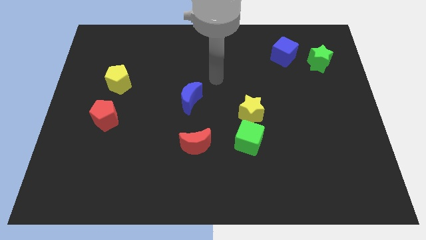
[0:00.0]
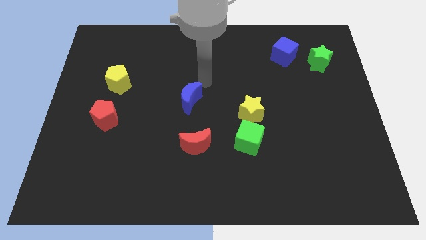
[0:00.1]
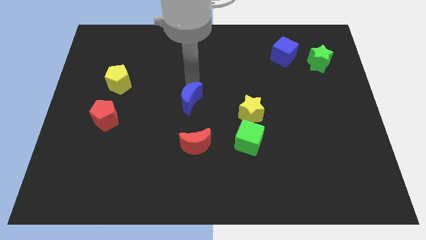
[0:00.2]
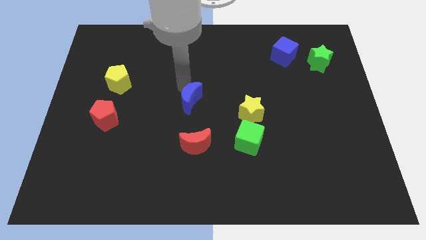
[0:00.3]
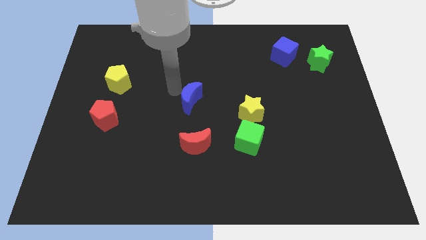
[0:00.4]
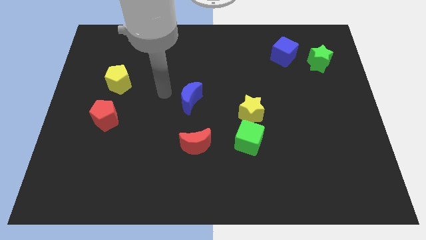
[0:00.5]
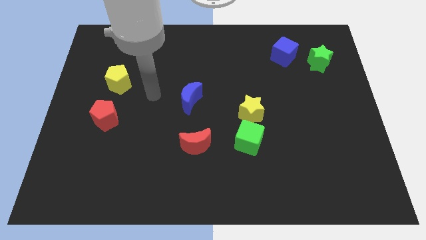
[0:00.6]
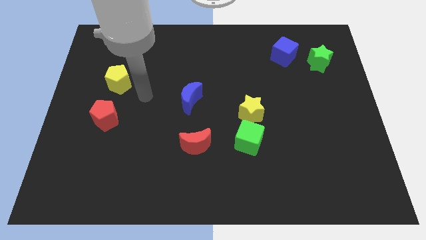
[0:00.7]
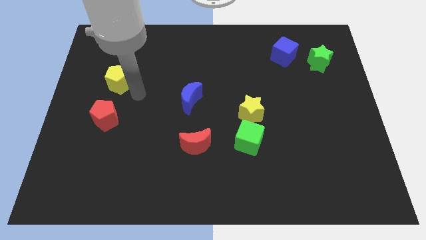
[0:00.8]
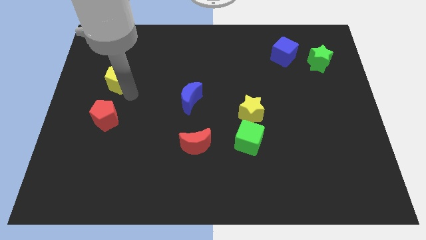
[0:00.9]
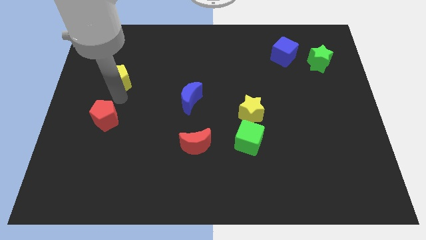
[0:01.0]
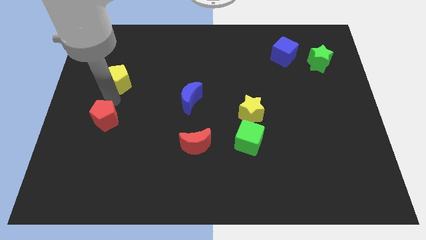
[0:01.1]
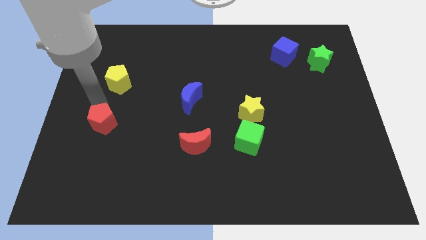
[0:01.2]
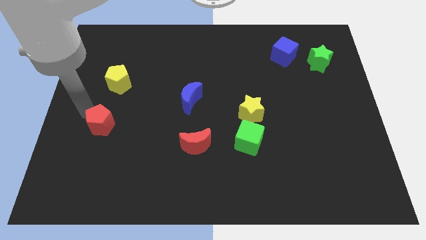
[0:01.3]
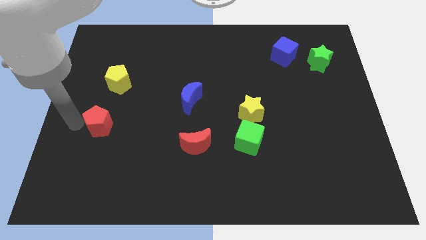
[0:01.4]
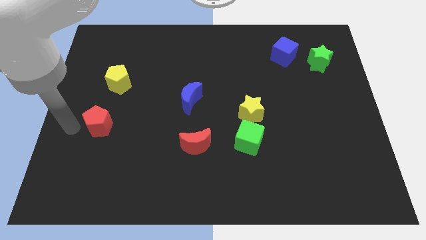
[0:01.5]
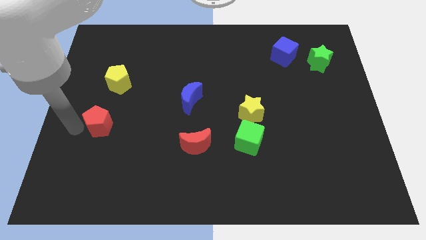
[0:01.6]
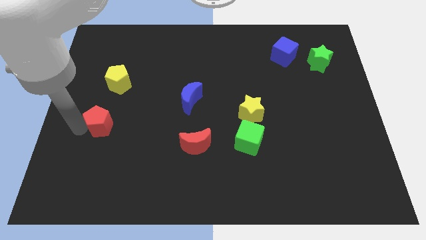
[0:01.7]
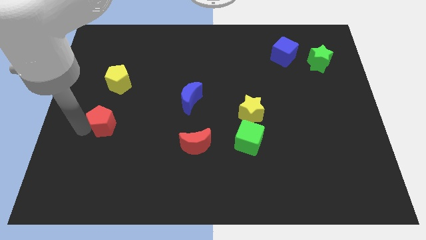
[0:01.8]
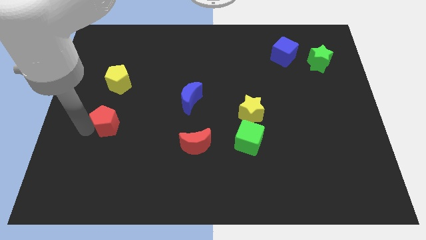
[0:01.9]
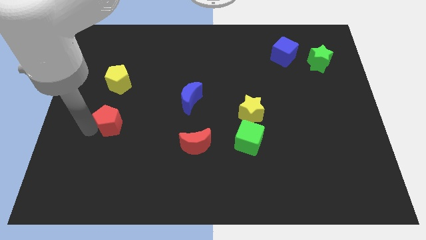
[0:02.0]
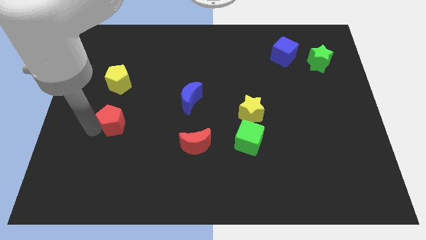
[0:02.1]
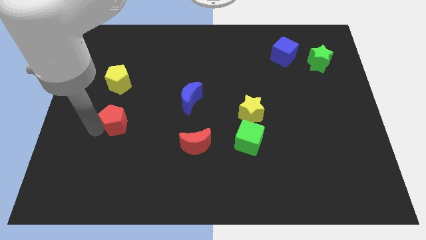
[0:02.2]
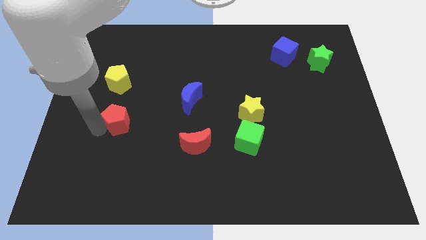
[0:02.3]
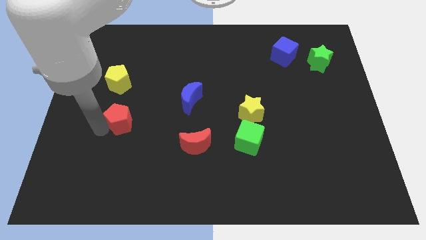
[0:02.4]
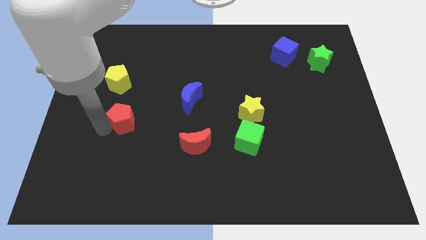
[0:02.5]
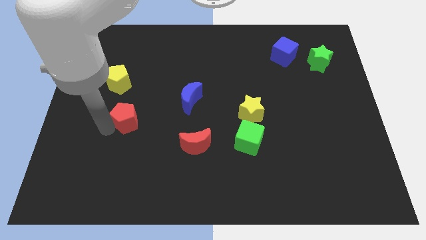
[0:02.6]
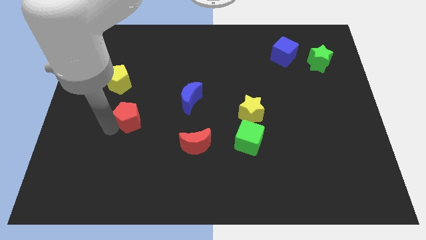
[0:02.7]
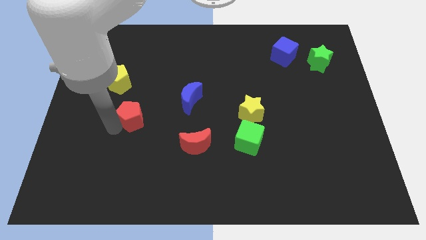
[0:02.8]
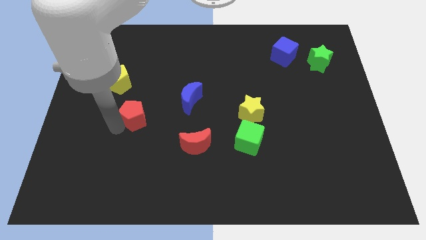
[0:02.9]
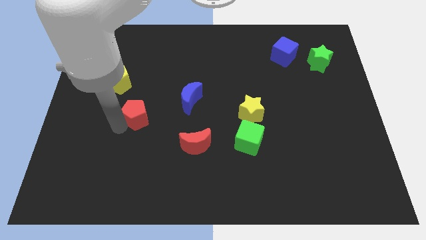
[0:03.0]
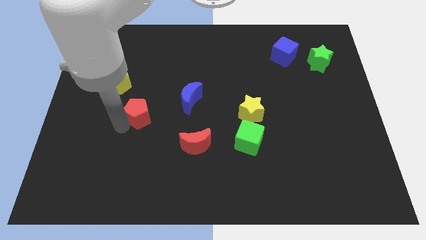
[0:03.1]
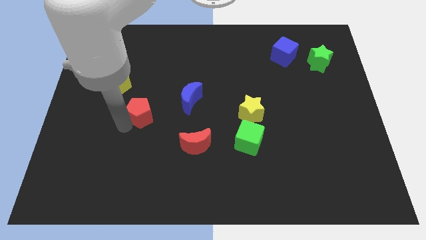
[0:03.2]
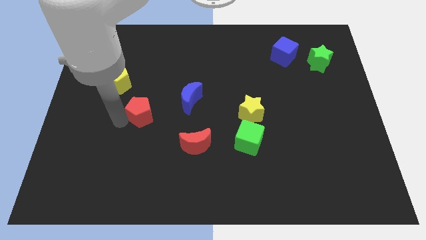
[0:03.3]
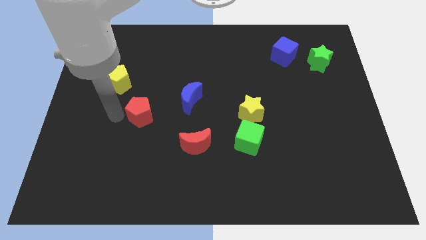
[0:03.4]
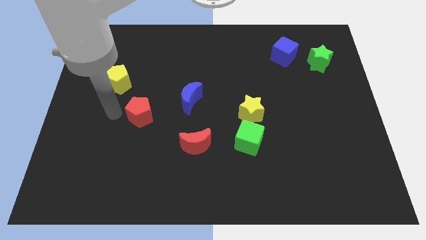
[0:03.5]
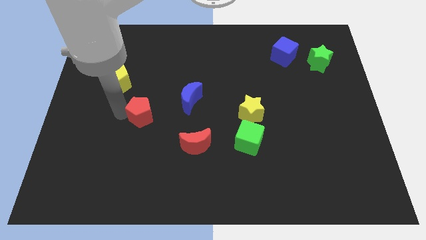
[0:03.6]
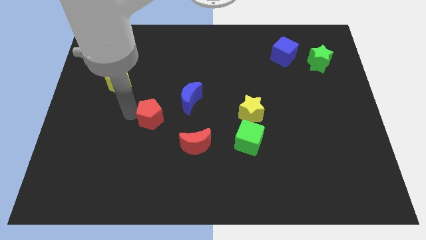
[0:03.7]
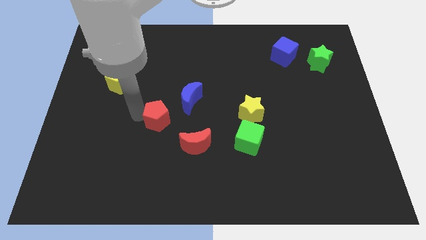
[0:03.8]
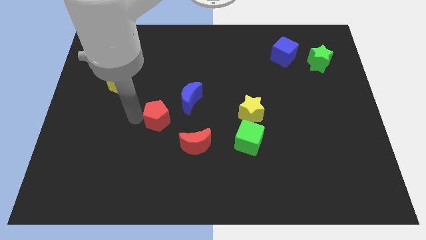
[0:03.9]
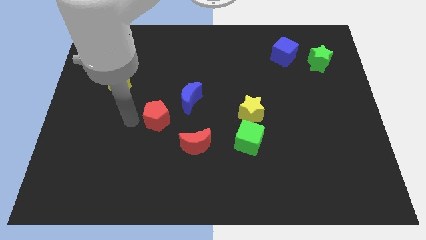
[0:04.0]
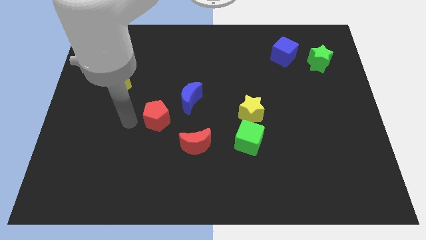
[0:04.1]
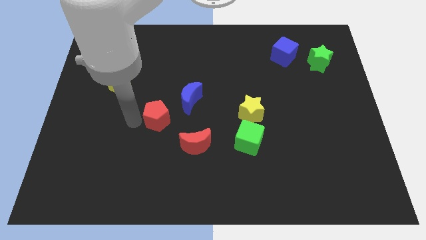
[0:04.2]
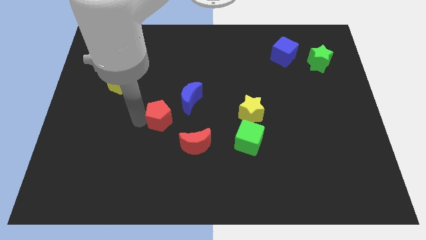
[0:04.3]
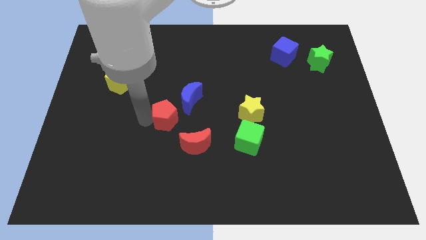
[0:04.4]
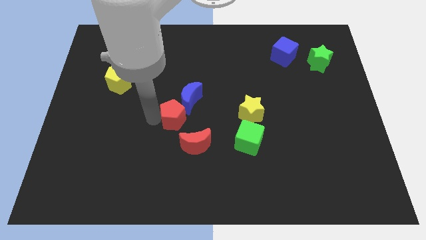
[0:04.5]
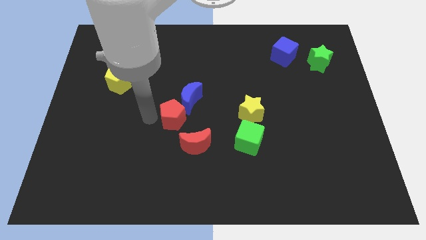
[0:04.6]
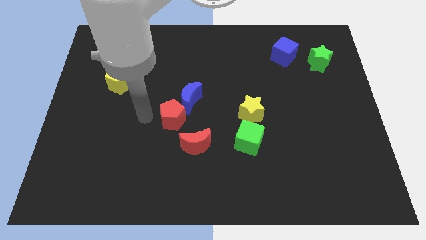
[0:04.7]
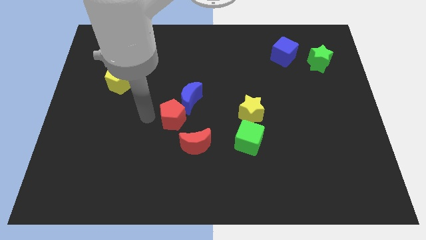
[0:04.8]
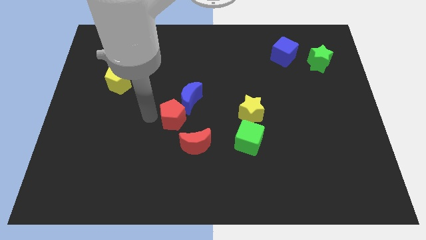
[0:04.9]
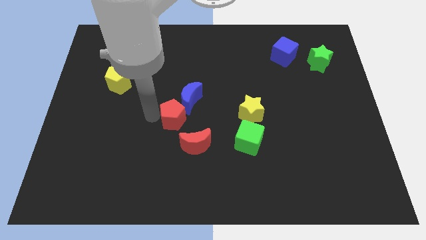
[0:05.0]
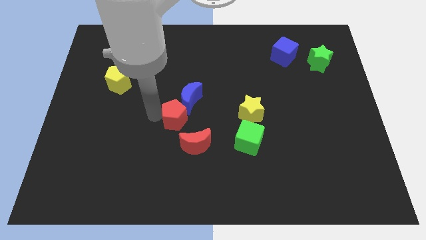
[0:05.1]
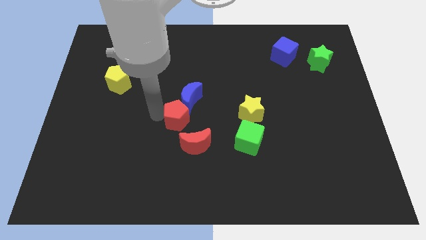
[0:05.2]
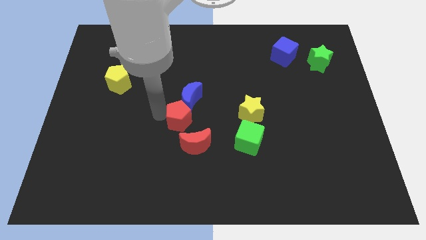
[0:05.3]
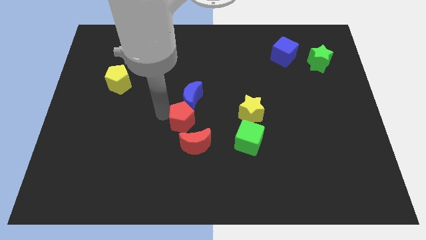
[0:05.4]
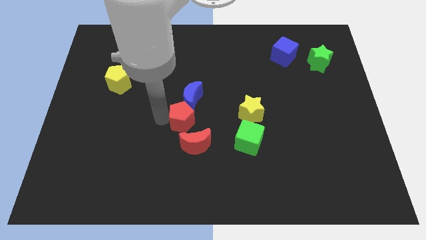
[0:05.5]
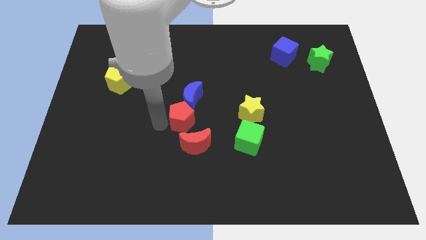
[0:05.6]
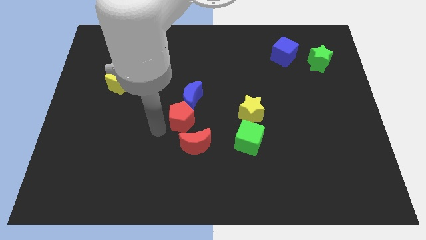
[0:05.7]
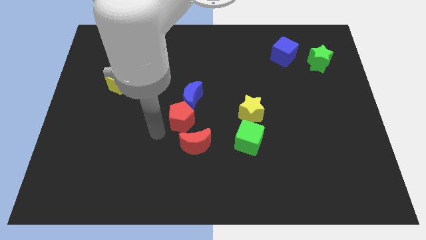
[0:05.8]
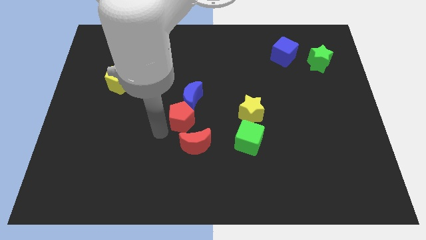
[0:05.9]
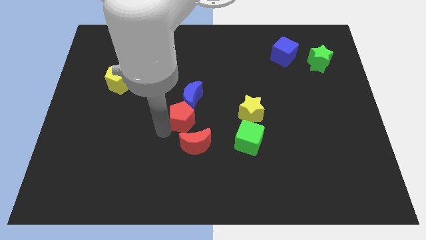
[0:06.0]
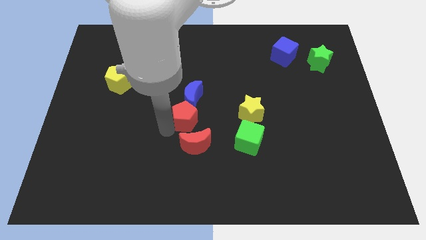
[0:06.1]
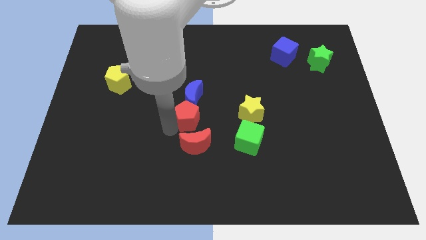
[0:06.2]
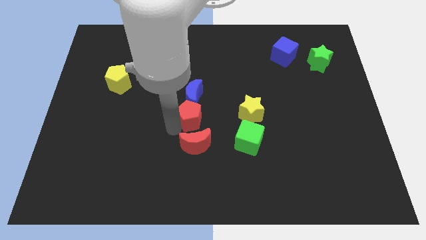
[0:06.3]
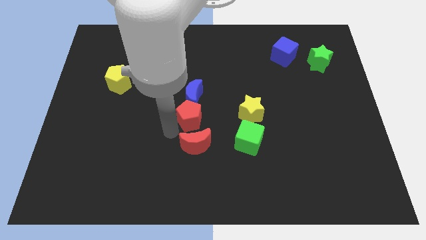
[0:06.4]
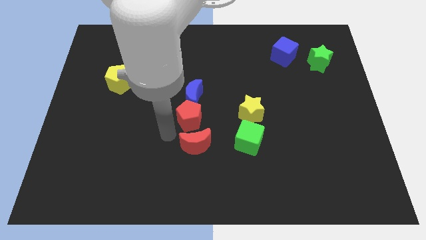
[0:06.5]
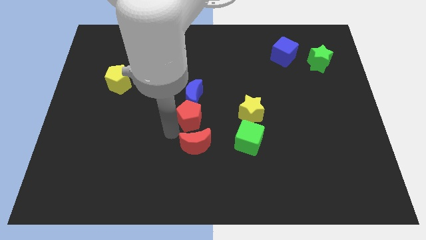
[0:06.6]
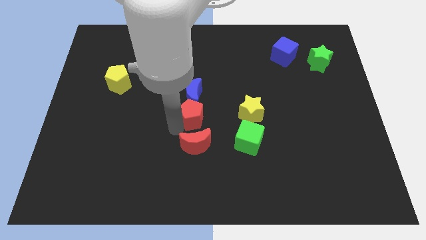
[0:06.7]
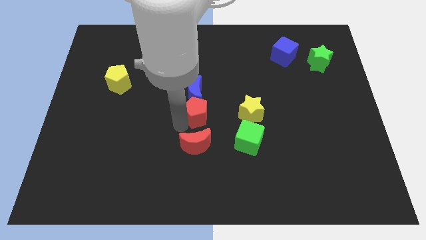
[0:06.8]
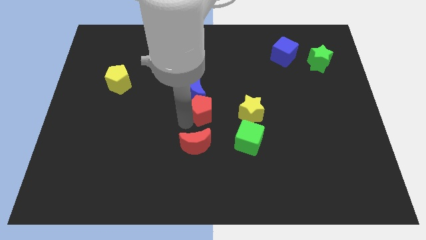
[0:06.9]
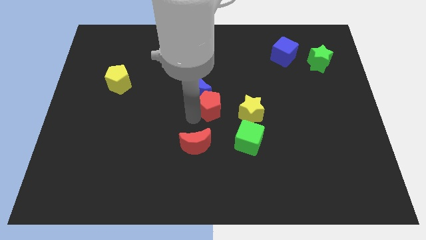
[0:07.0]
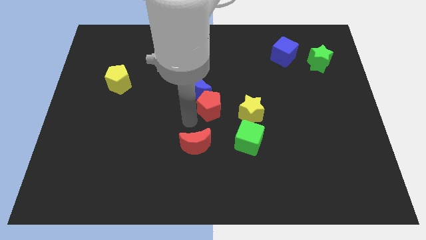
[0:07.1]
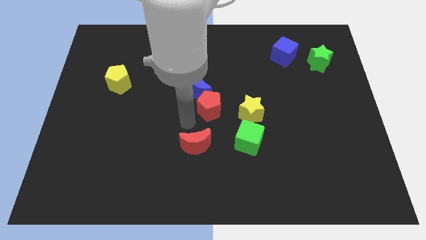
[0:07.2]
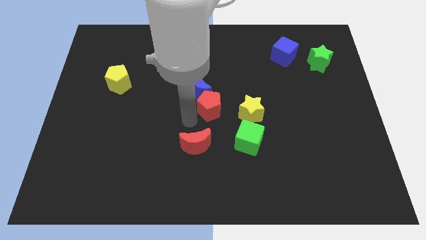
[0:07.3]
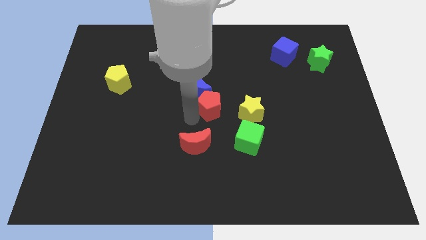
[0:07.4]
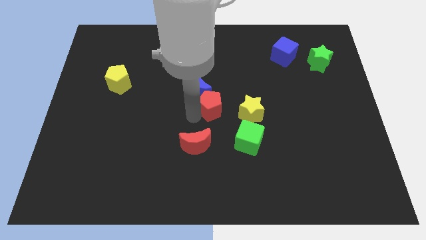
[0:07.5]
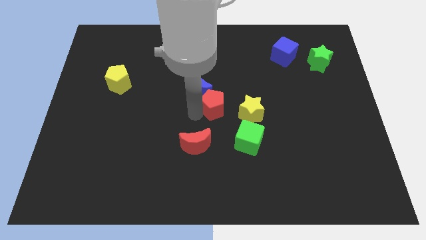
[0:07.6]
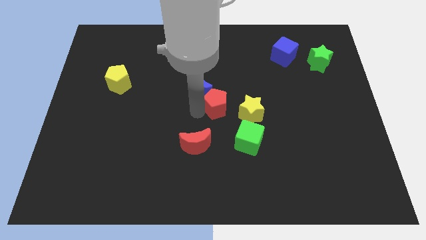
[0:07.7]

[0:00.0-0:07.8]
put the red pentagon to the top left side of the yellow star
